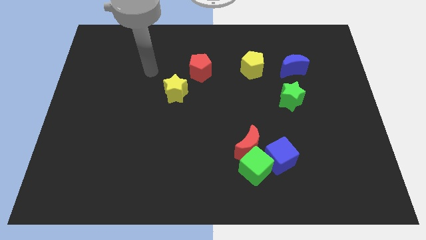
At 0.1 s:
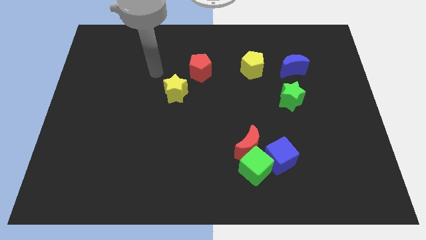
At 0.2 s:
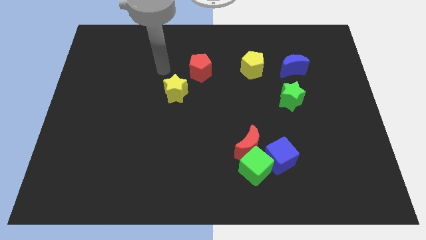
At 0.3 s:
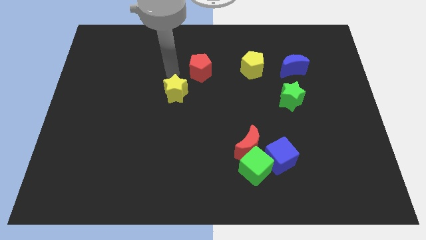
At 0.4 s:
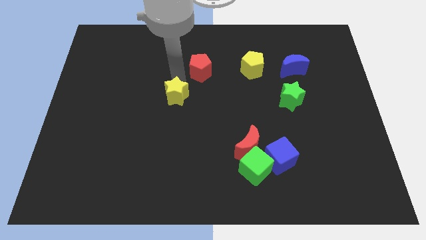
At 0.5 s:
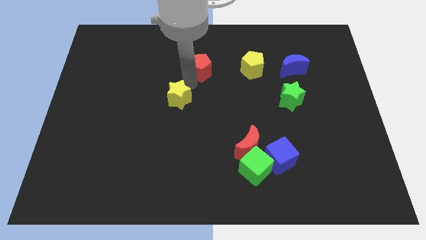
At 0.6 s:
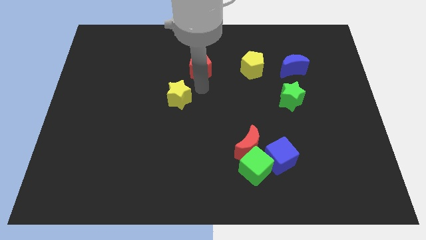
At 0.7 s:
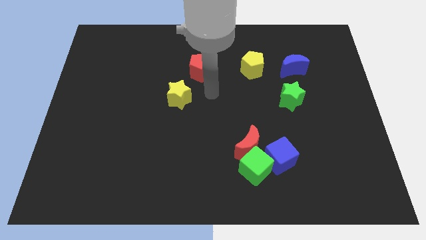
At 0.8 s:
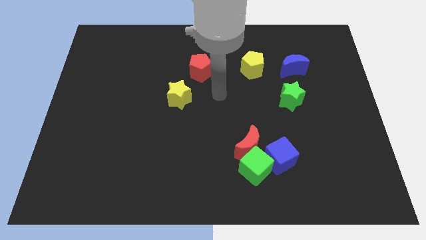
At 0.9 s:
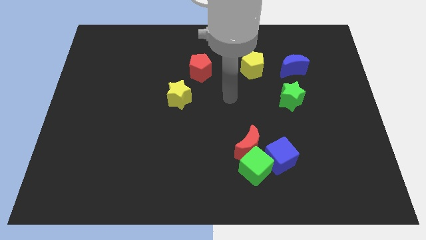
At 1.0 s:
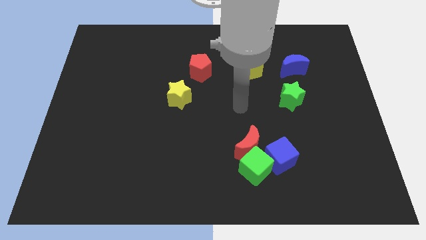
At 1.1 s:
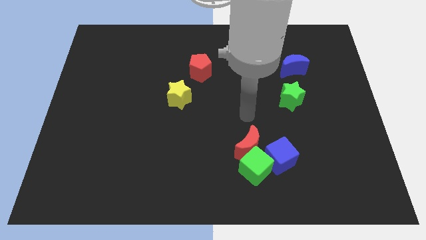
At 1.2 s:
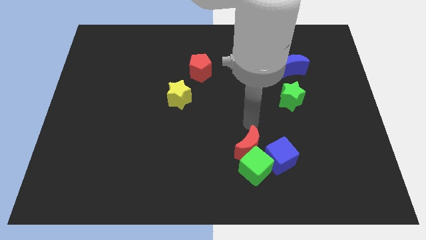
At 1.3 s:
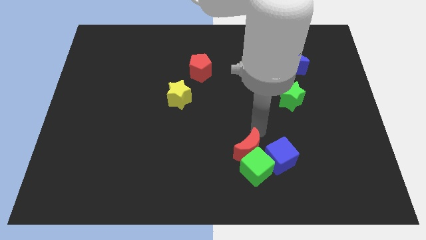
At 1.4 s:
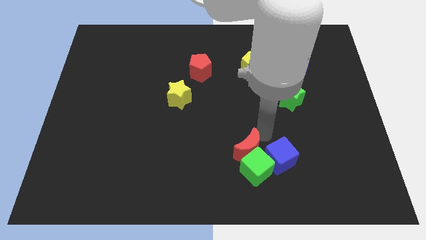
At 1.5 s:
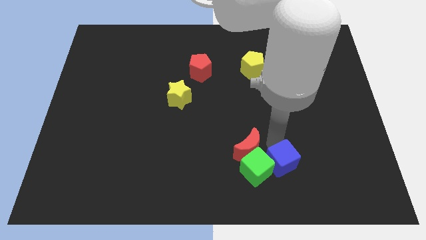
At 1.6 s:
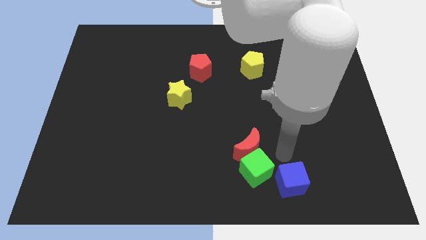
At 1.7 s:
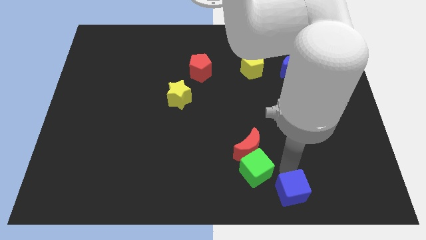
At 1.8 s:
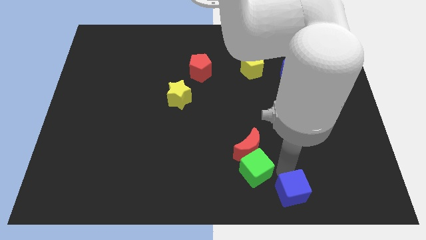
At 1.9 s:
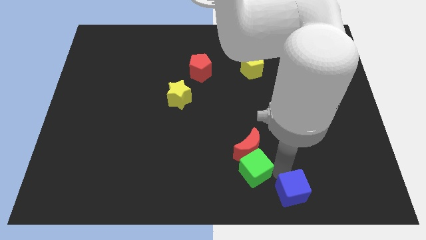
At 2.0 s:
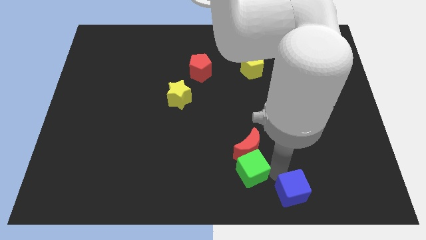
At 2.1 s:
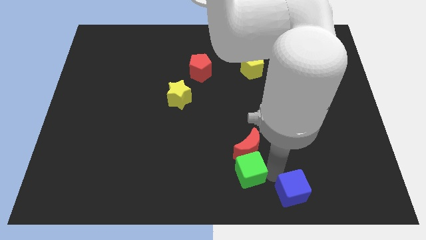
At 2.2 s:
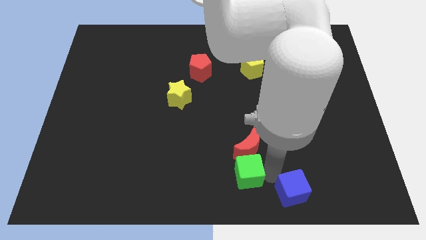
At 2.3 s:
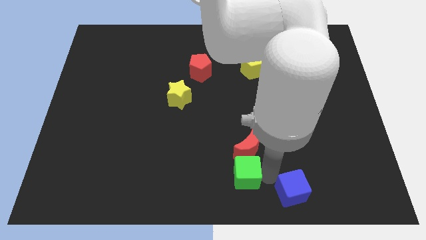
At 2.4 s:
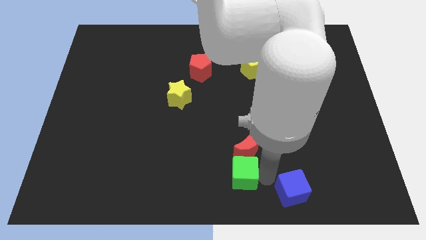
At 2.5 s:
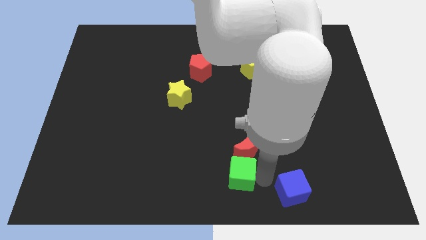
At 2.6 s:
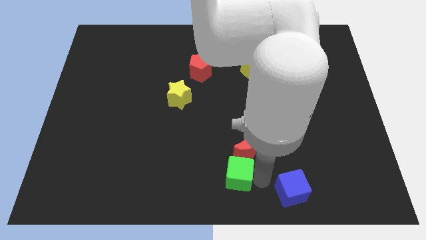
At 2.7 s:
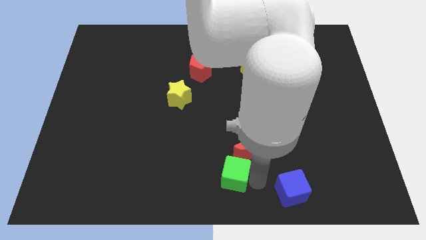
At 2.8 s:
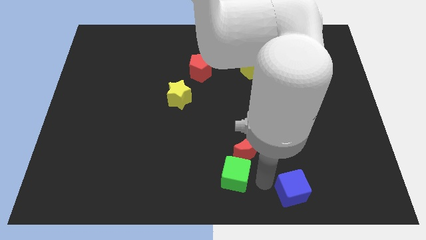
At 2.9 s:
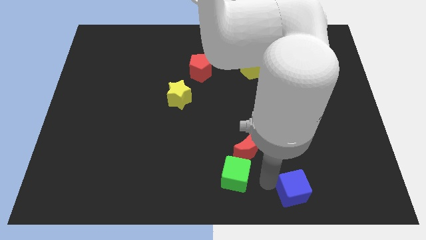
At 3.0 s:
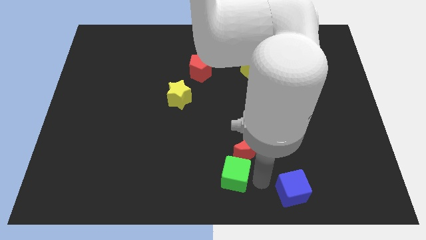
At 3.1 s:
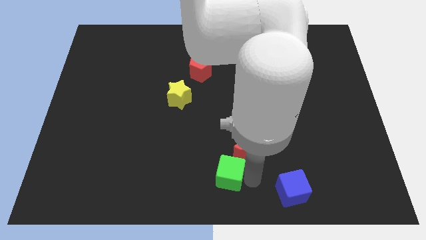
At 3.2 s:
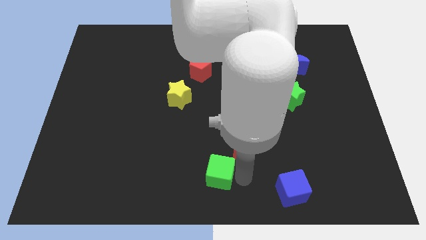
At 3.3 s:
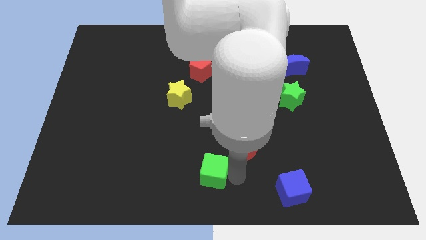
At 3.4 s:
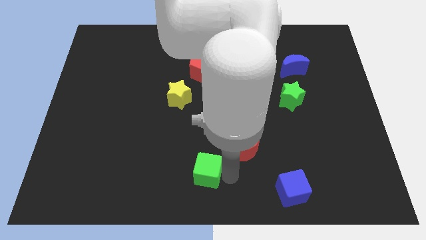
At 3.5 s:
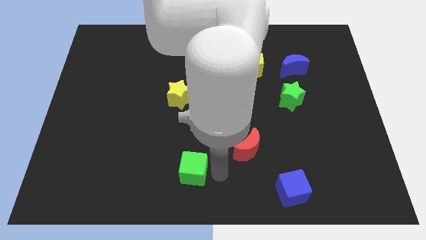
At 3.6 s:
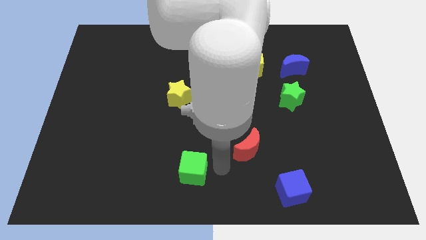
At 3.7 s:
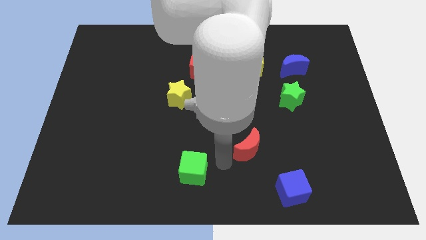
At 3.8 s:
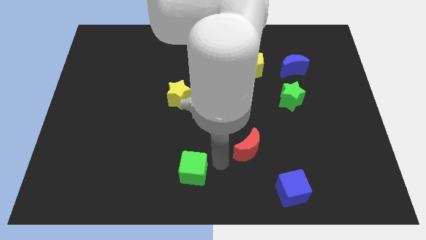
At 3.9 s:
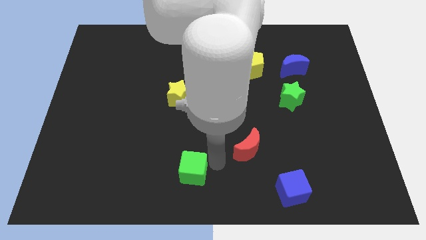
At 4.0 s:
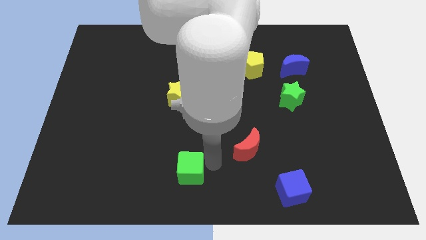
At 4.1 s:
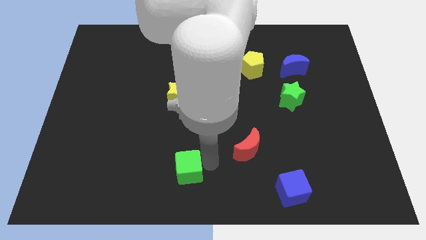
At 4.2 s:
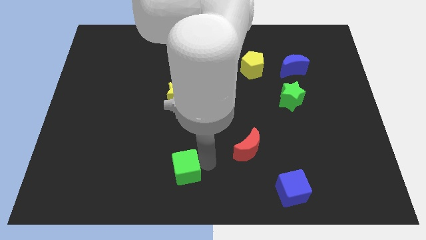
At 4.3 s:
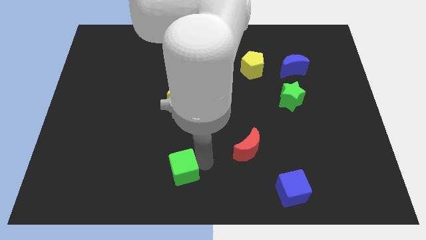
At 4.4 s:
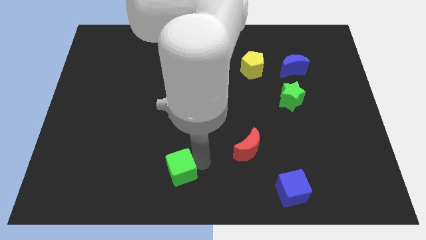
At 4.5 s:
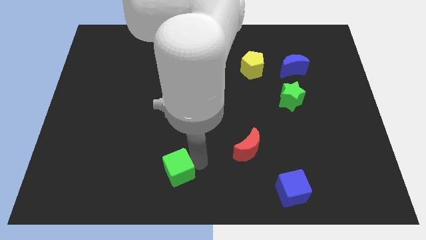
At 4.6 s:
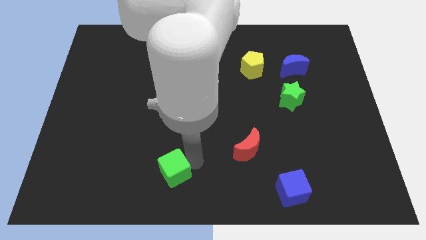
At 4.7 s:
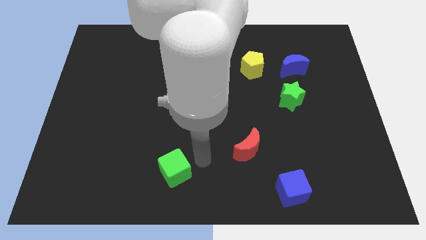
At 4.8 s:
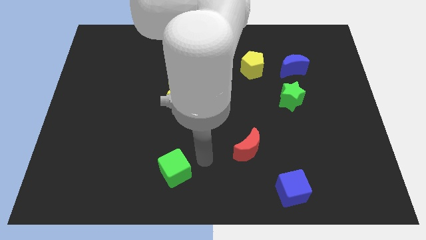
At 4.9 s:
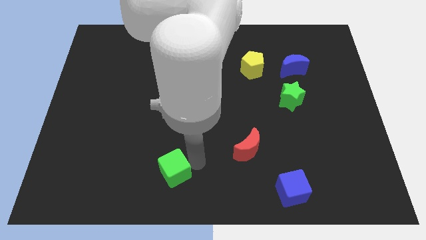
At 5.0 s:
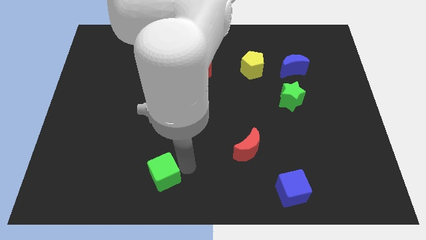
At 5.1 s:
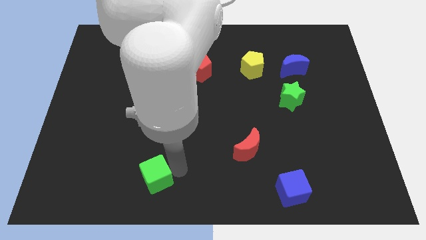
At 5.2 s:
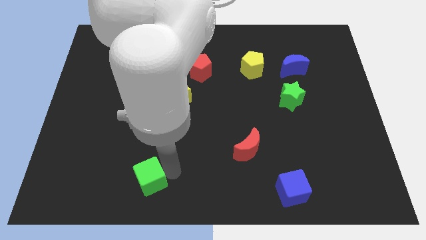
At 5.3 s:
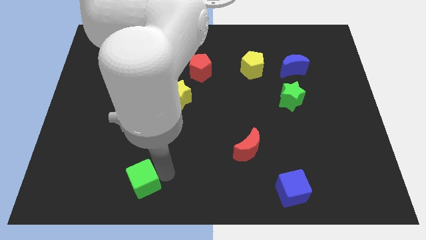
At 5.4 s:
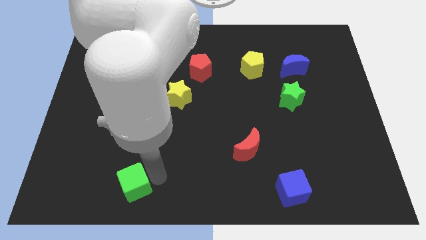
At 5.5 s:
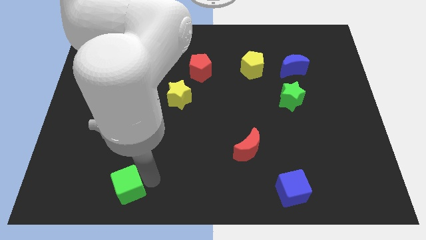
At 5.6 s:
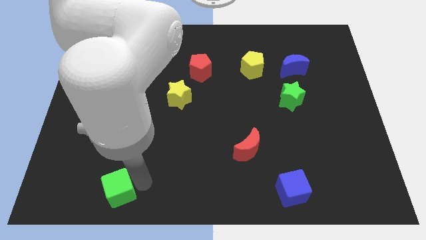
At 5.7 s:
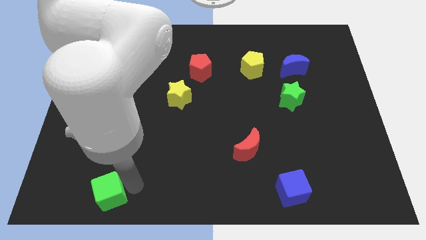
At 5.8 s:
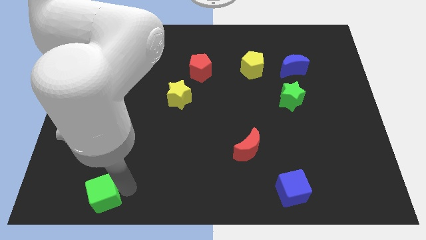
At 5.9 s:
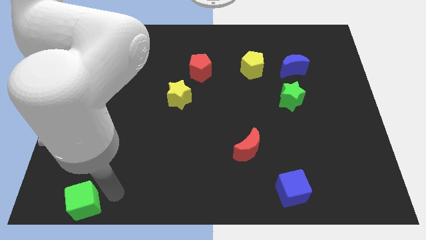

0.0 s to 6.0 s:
push the green cube to the bottom left corner

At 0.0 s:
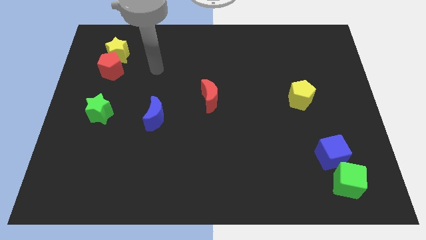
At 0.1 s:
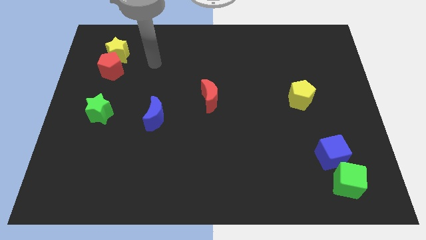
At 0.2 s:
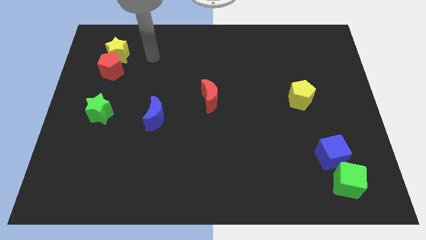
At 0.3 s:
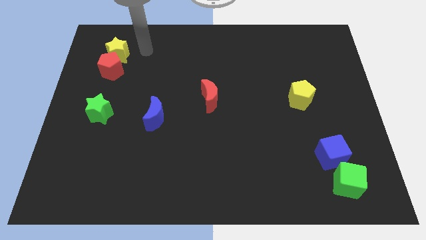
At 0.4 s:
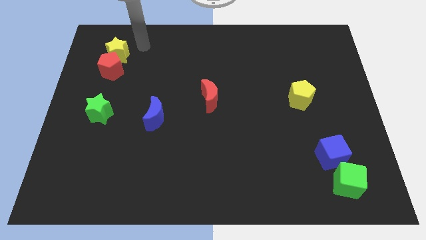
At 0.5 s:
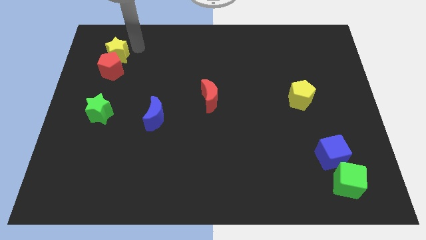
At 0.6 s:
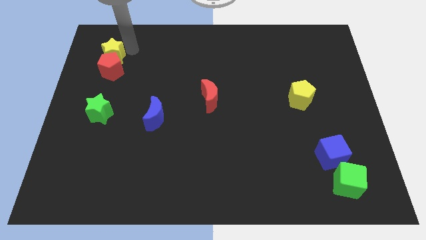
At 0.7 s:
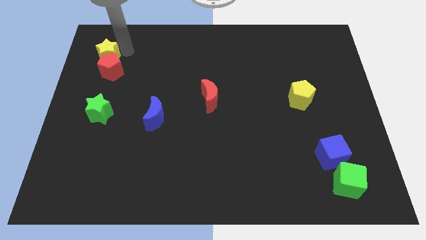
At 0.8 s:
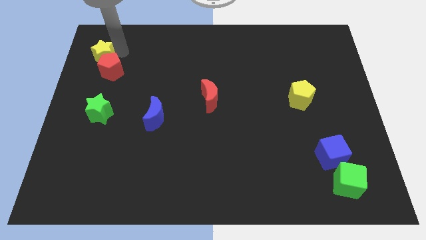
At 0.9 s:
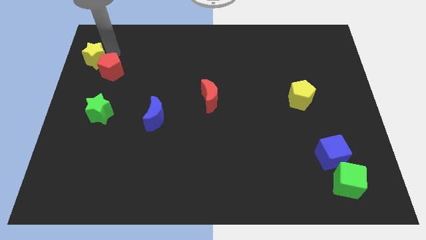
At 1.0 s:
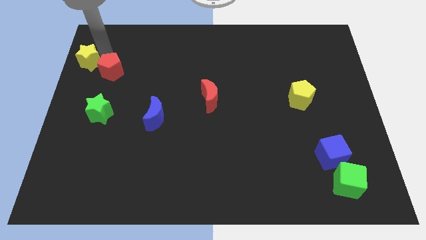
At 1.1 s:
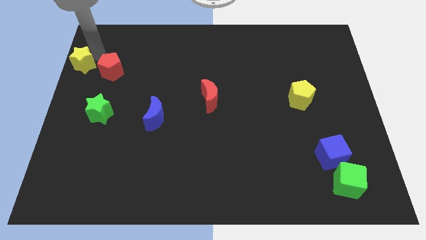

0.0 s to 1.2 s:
move the yellow star to the center left

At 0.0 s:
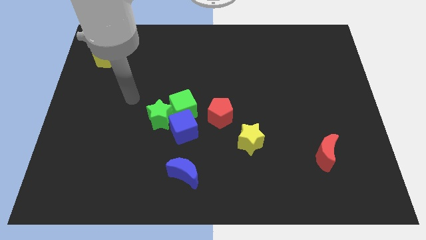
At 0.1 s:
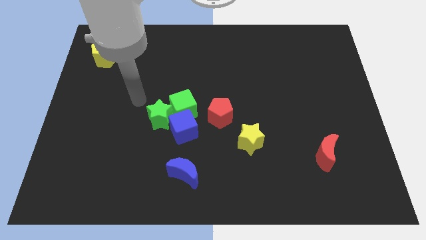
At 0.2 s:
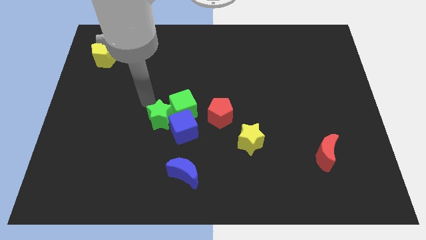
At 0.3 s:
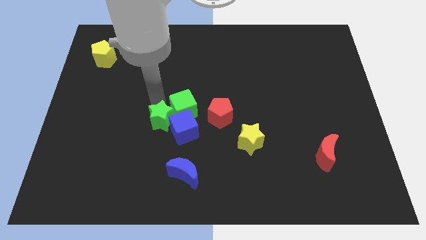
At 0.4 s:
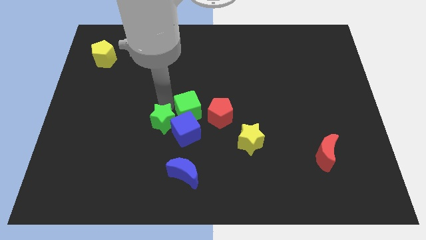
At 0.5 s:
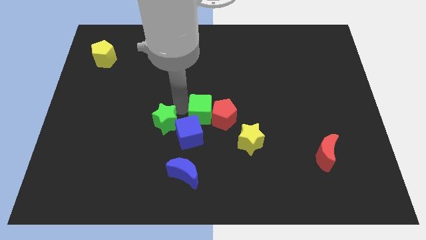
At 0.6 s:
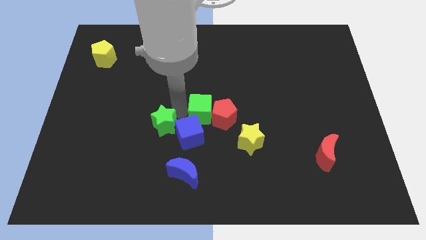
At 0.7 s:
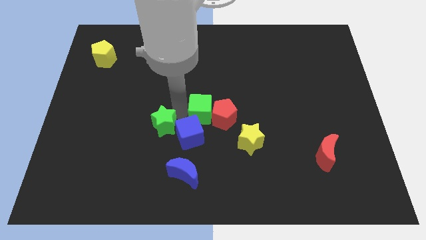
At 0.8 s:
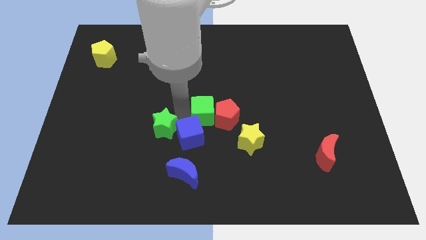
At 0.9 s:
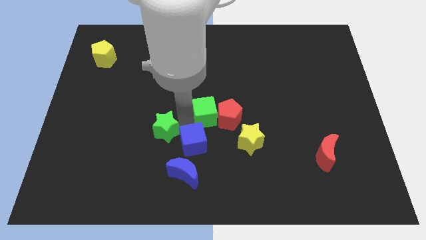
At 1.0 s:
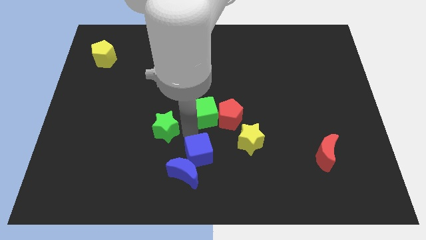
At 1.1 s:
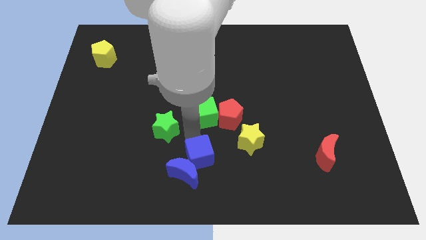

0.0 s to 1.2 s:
put the blue cube to the bottom side
